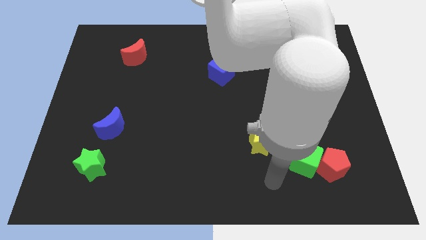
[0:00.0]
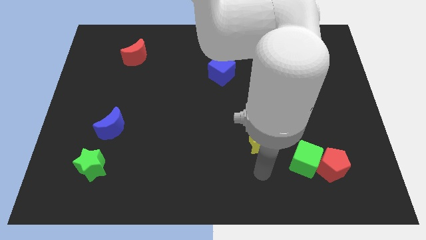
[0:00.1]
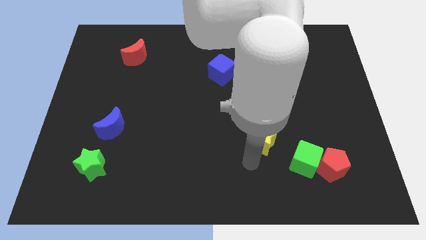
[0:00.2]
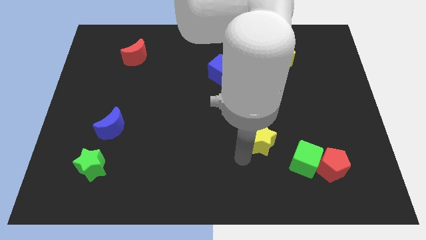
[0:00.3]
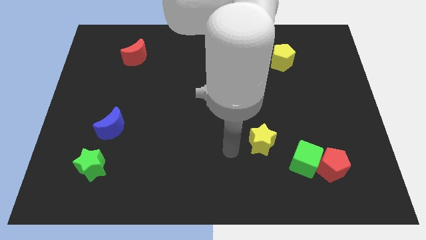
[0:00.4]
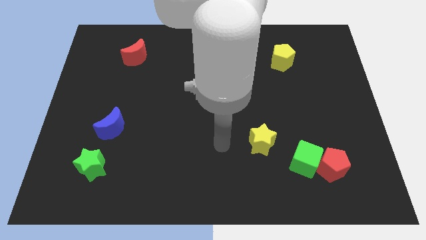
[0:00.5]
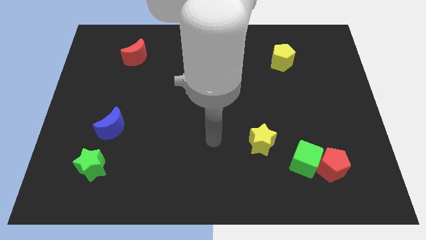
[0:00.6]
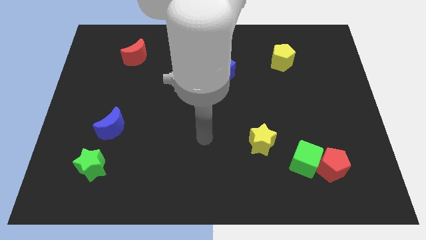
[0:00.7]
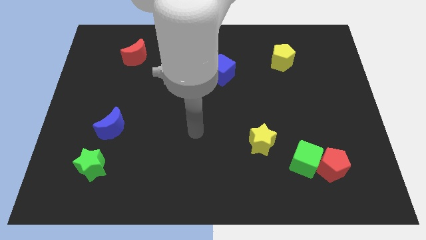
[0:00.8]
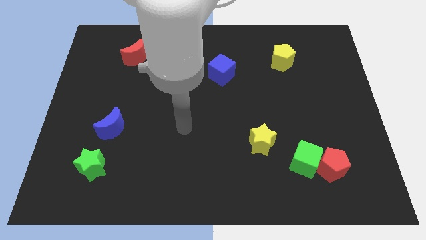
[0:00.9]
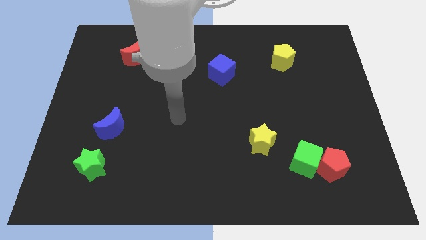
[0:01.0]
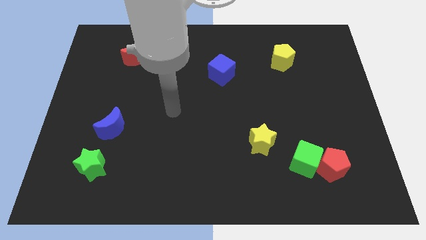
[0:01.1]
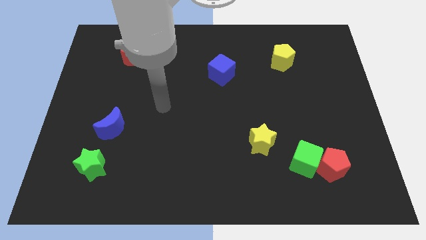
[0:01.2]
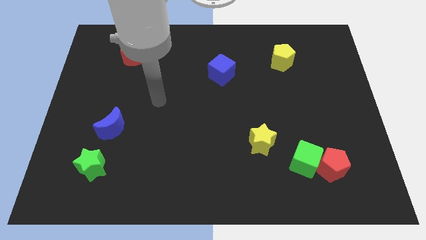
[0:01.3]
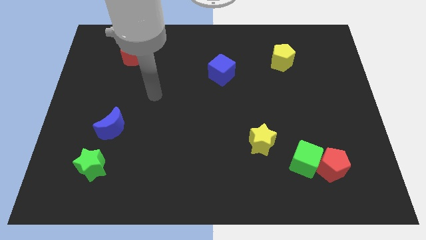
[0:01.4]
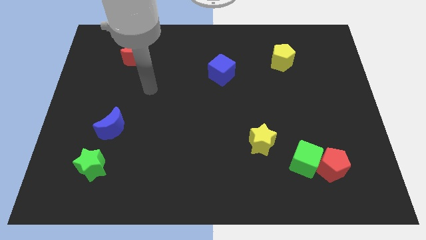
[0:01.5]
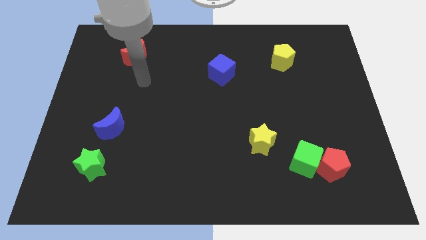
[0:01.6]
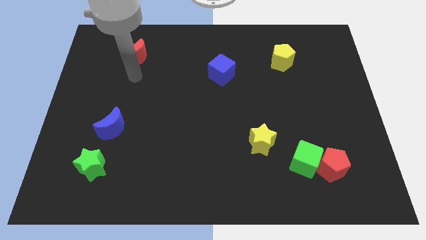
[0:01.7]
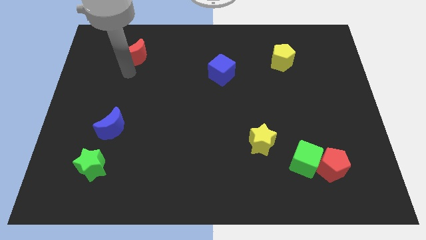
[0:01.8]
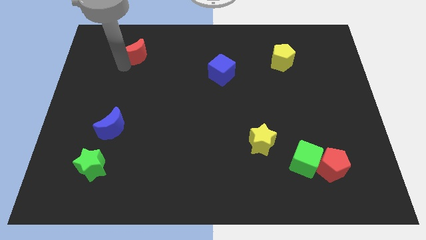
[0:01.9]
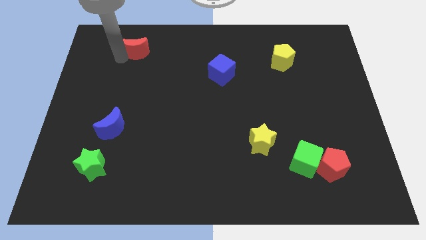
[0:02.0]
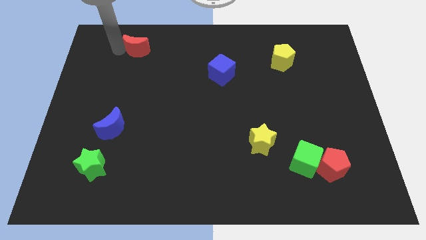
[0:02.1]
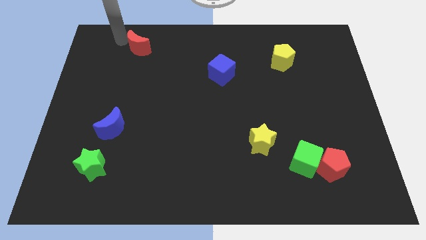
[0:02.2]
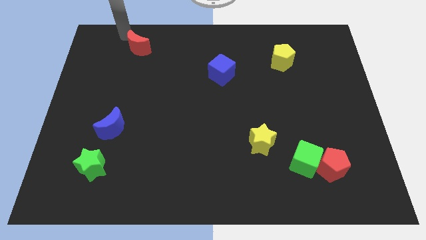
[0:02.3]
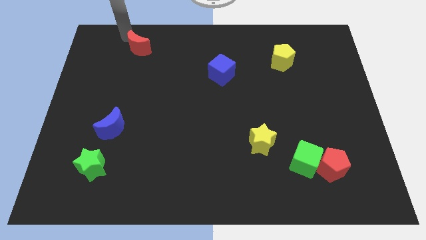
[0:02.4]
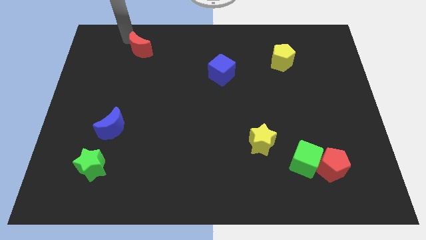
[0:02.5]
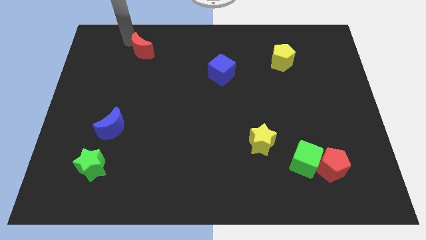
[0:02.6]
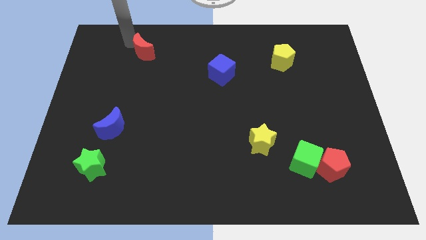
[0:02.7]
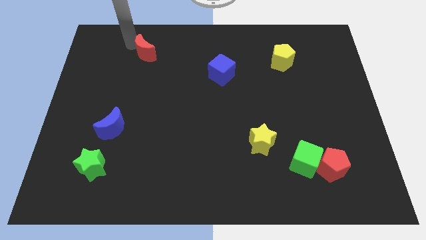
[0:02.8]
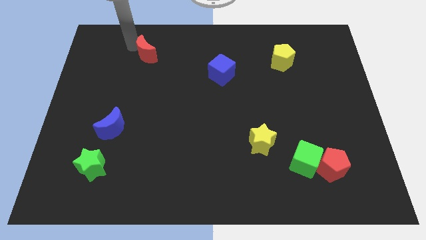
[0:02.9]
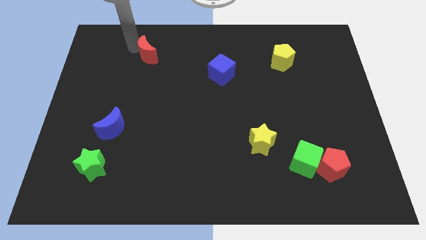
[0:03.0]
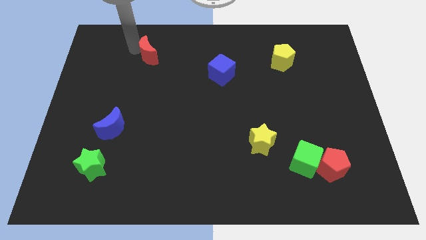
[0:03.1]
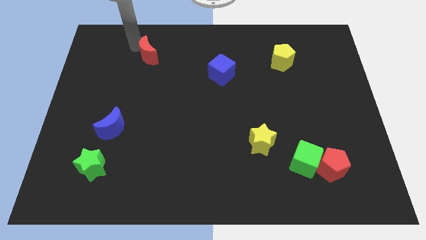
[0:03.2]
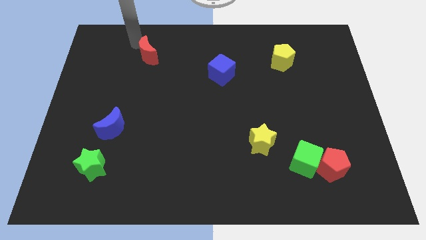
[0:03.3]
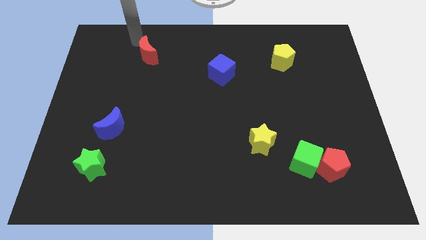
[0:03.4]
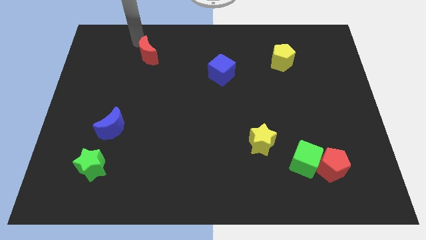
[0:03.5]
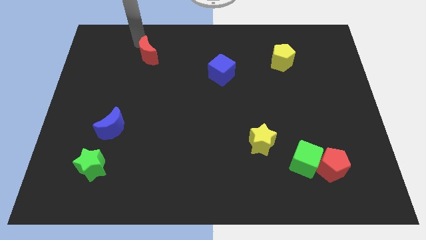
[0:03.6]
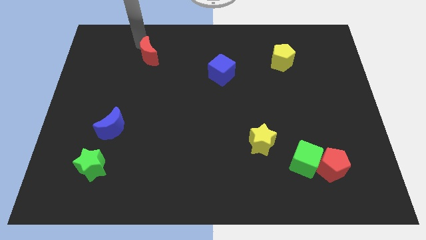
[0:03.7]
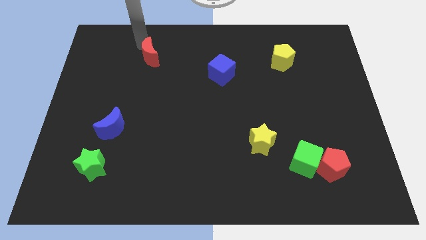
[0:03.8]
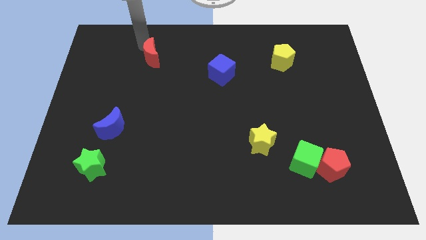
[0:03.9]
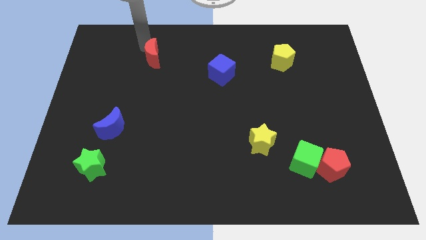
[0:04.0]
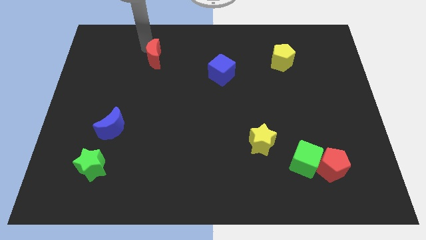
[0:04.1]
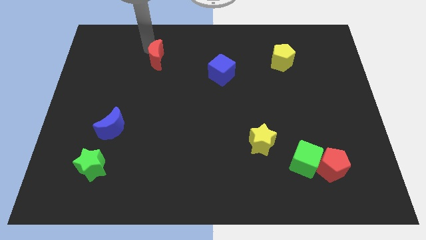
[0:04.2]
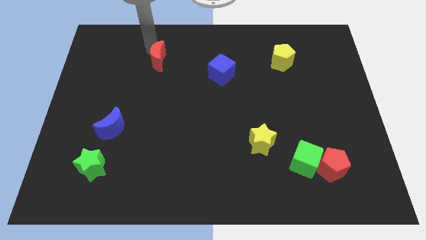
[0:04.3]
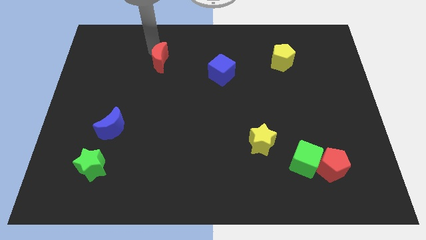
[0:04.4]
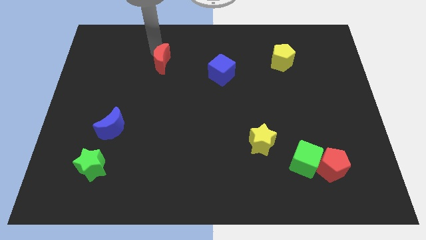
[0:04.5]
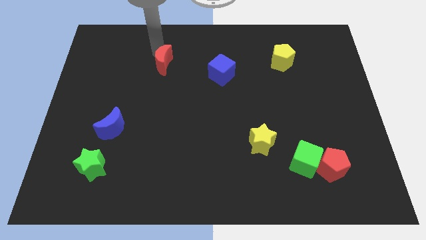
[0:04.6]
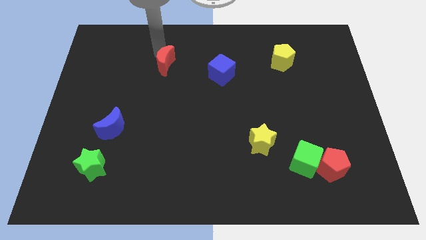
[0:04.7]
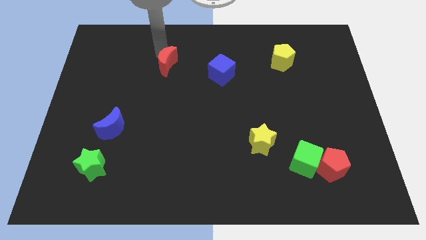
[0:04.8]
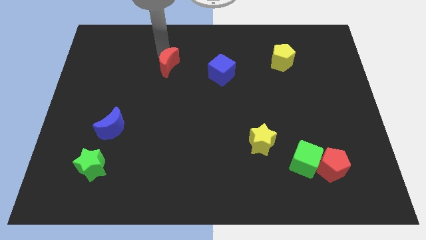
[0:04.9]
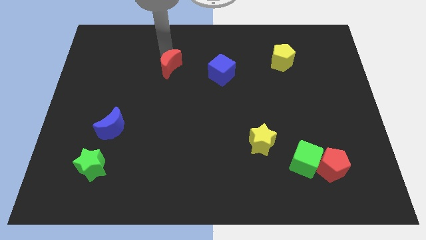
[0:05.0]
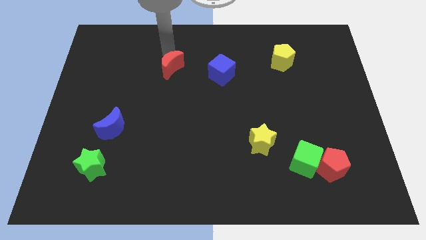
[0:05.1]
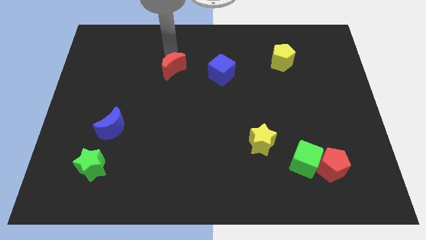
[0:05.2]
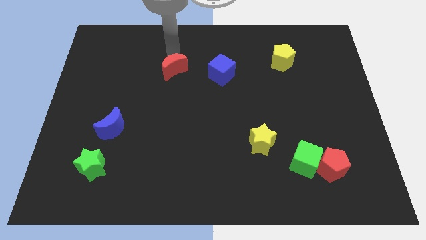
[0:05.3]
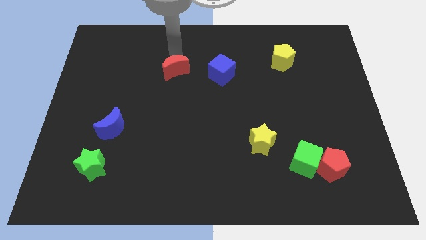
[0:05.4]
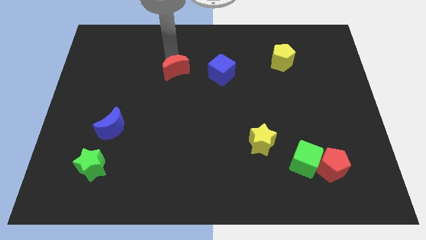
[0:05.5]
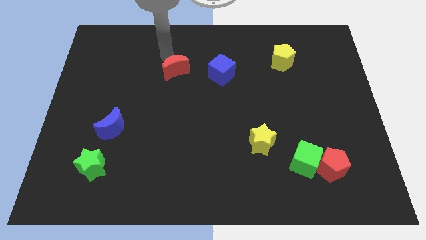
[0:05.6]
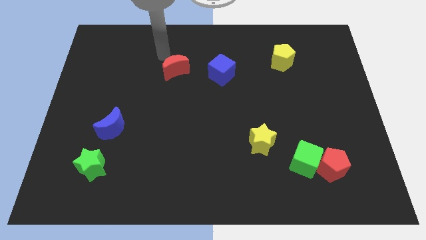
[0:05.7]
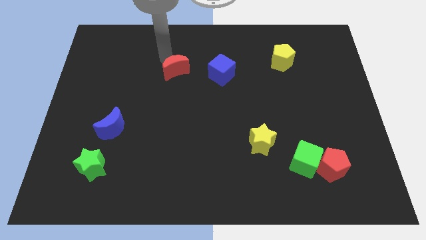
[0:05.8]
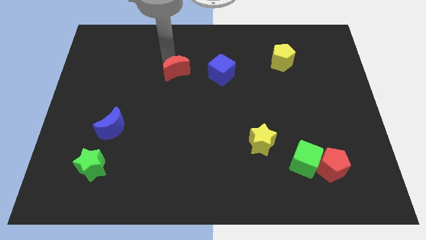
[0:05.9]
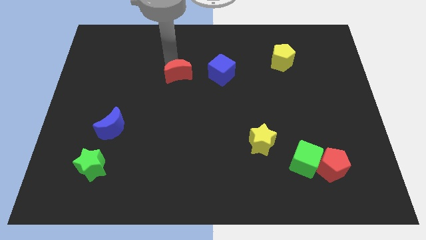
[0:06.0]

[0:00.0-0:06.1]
move the red moon to the middle
